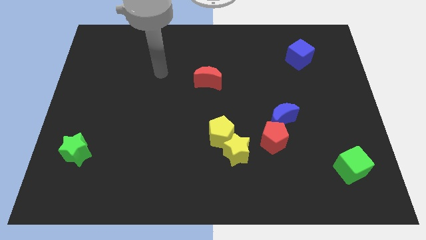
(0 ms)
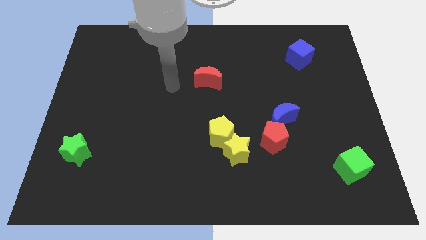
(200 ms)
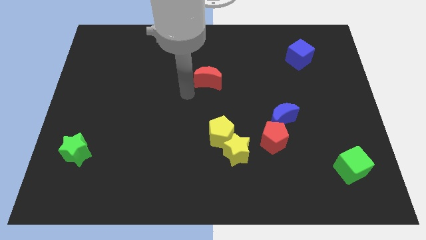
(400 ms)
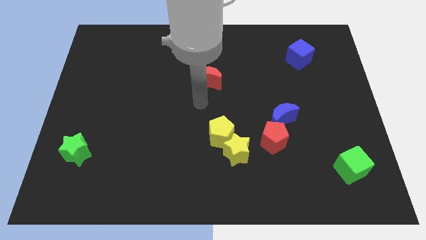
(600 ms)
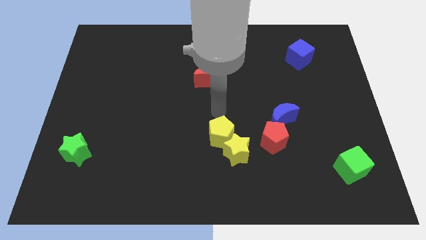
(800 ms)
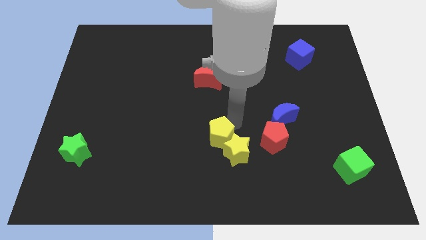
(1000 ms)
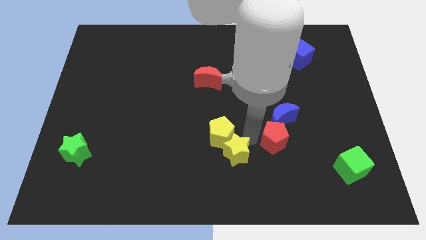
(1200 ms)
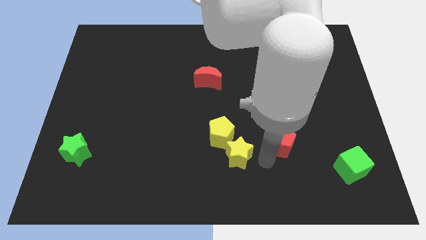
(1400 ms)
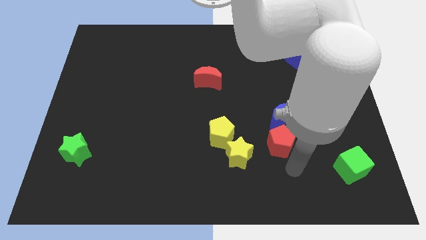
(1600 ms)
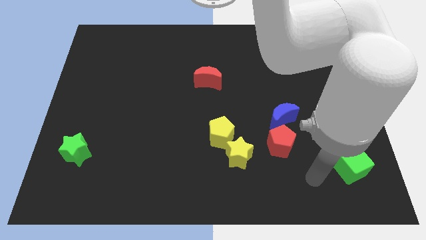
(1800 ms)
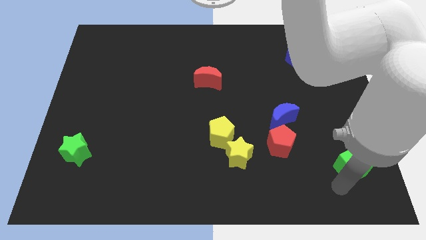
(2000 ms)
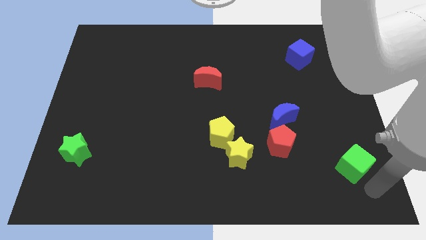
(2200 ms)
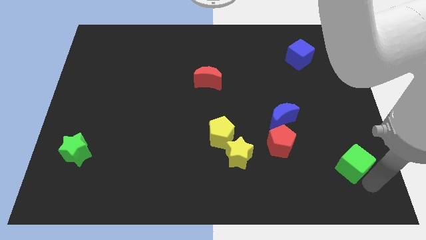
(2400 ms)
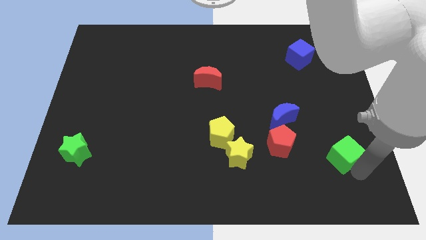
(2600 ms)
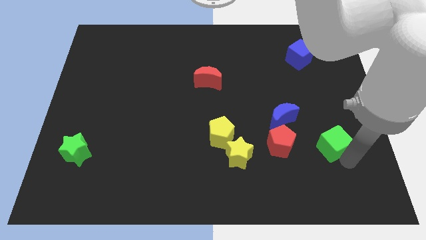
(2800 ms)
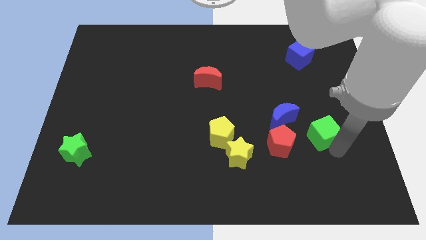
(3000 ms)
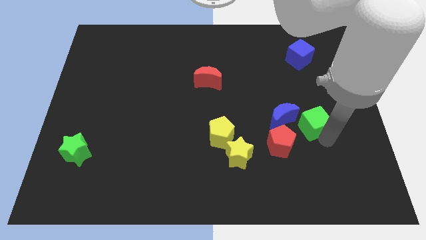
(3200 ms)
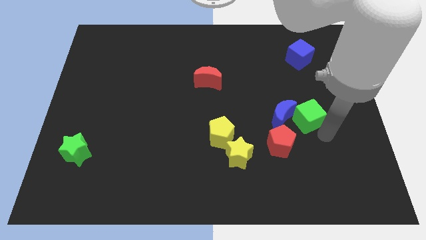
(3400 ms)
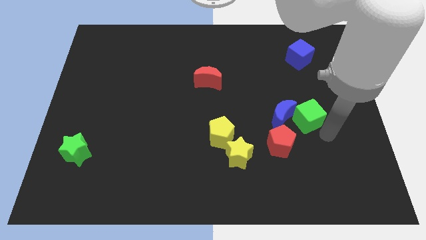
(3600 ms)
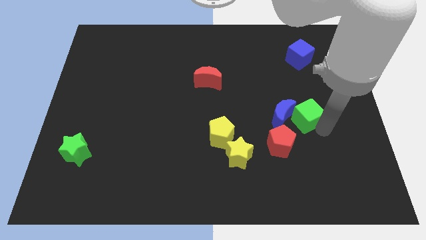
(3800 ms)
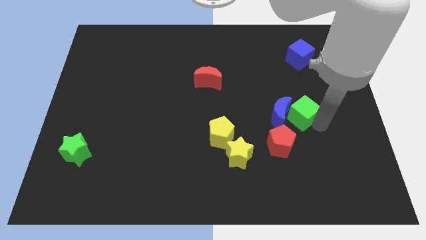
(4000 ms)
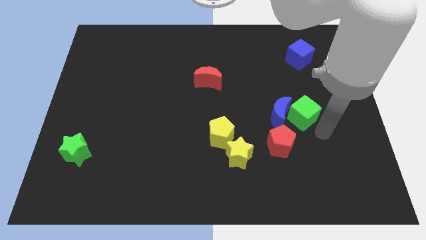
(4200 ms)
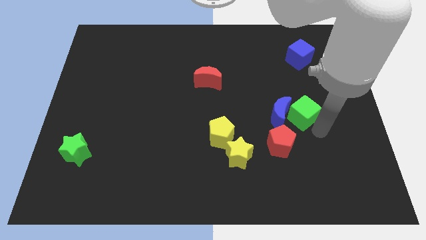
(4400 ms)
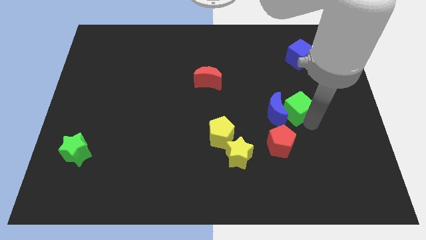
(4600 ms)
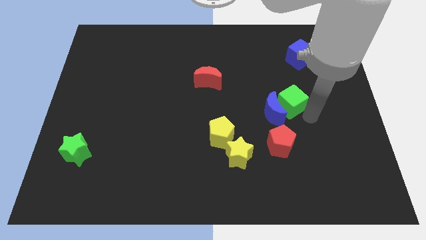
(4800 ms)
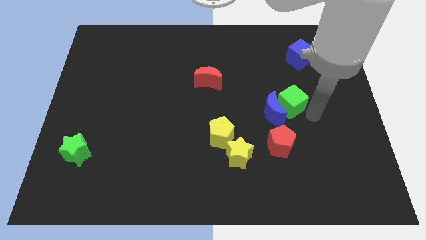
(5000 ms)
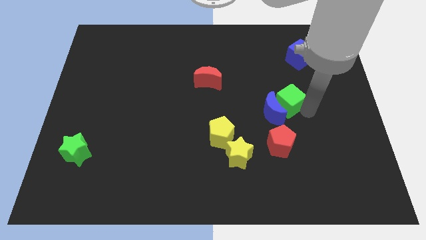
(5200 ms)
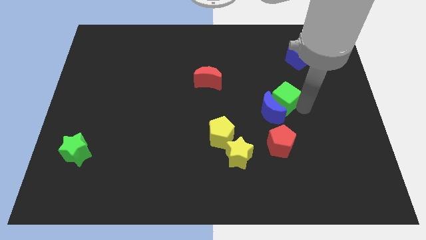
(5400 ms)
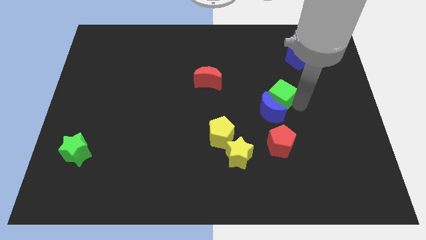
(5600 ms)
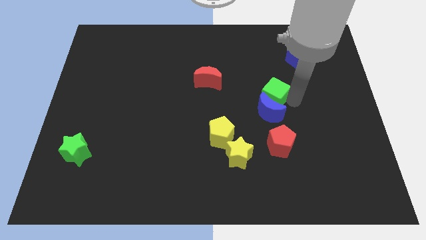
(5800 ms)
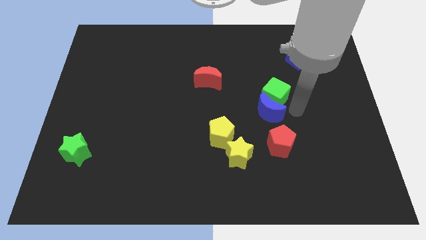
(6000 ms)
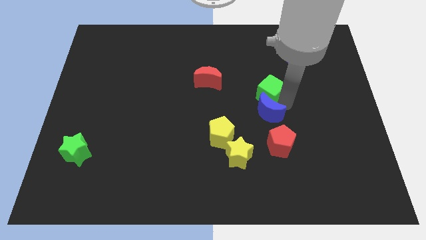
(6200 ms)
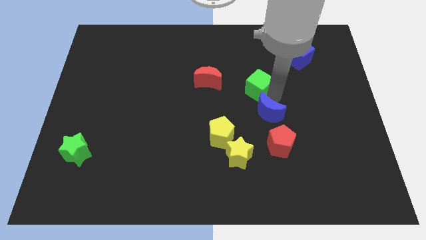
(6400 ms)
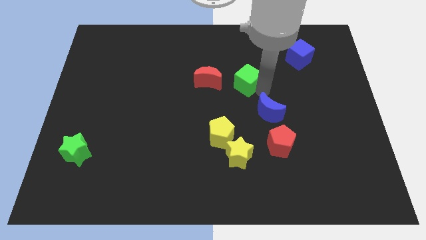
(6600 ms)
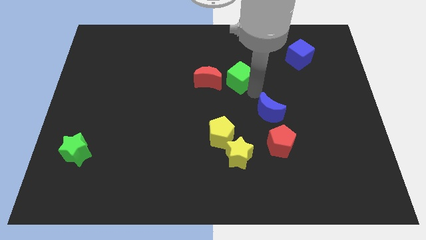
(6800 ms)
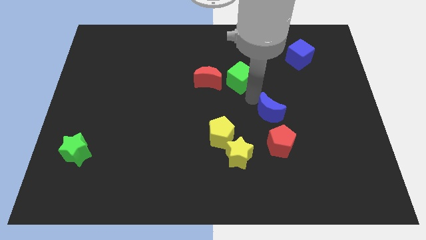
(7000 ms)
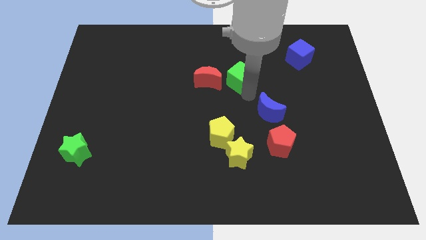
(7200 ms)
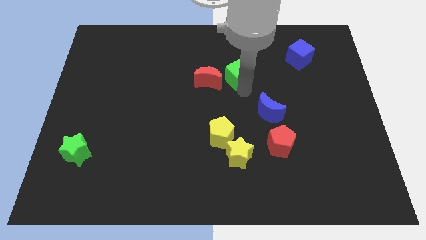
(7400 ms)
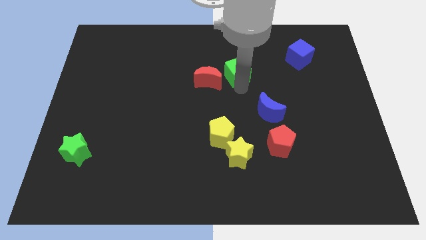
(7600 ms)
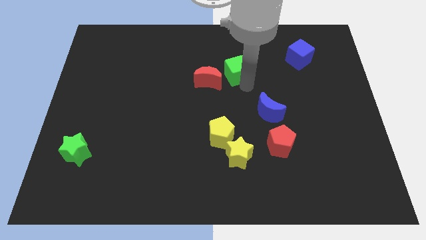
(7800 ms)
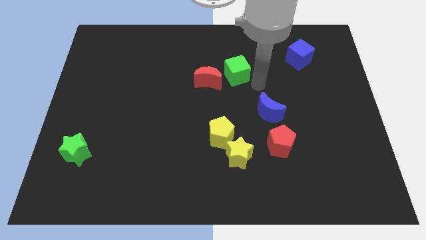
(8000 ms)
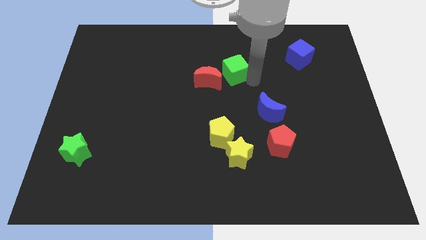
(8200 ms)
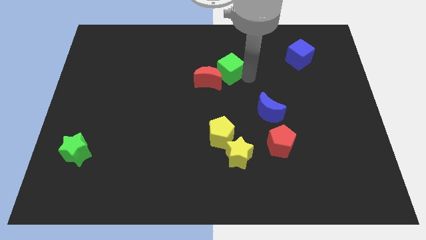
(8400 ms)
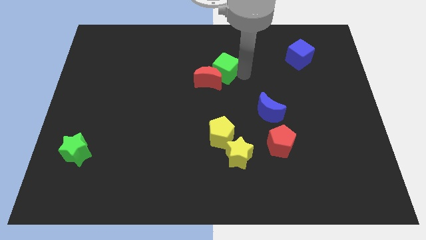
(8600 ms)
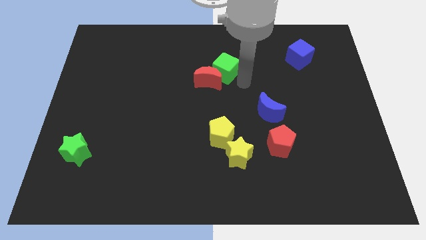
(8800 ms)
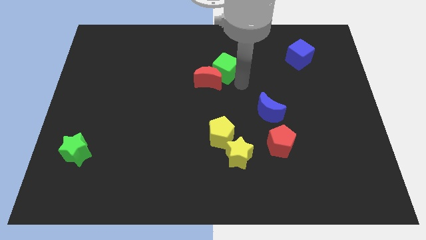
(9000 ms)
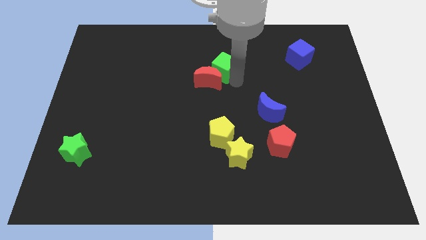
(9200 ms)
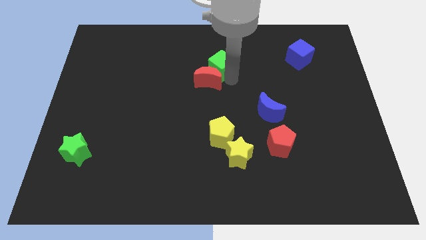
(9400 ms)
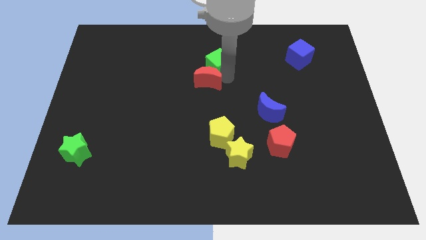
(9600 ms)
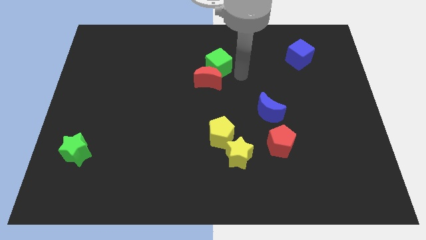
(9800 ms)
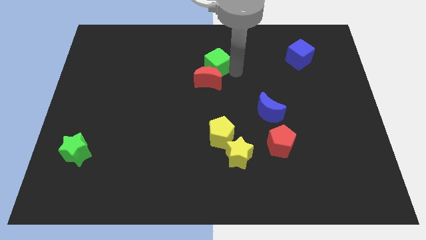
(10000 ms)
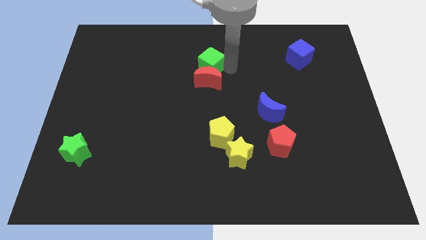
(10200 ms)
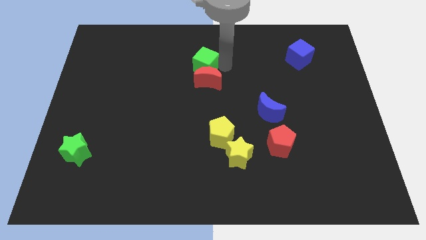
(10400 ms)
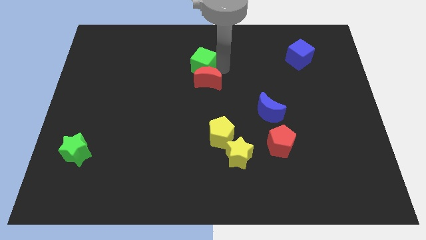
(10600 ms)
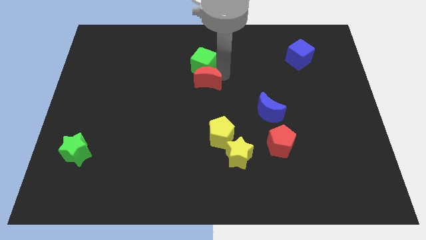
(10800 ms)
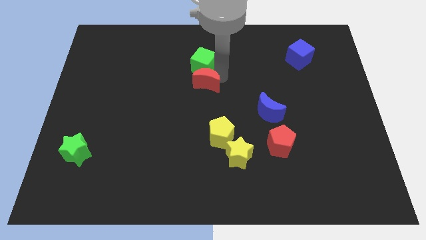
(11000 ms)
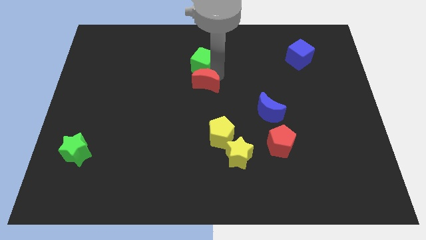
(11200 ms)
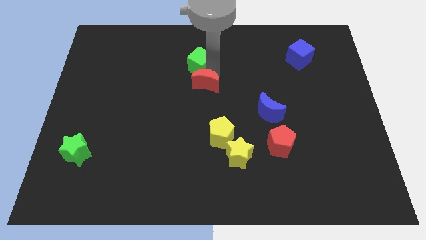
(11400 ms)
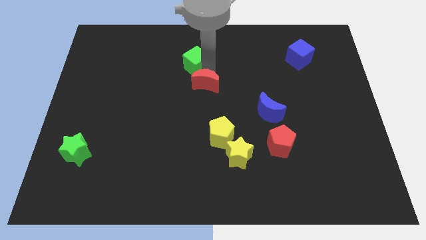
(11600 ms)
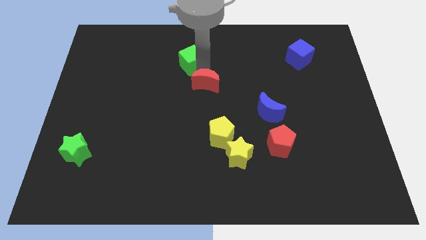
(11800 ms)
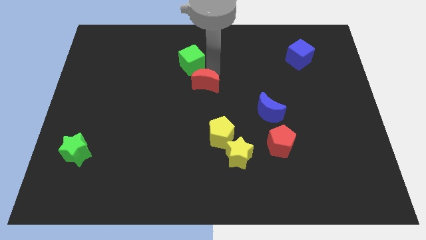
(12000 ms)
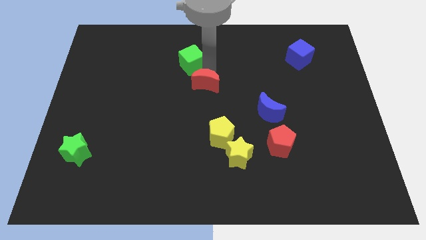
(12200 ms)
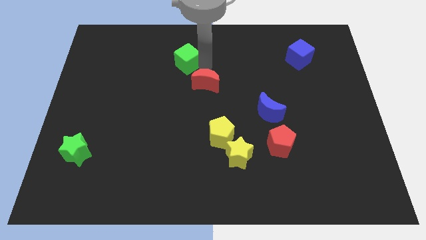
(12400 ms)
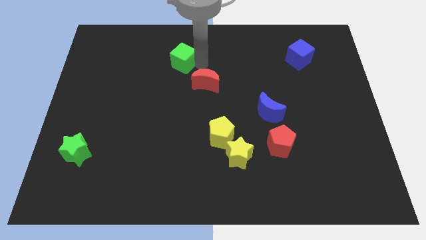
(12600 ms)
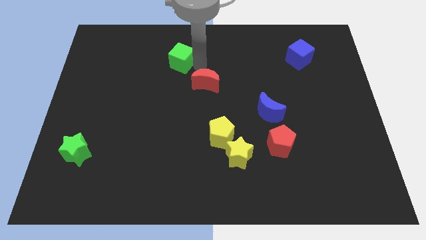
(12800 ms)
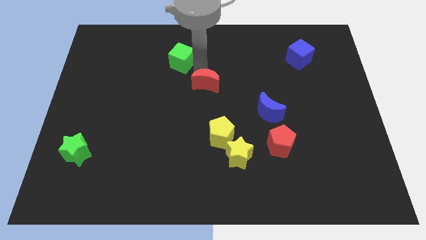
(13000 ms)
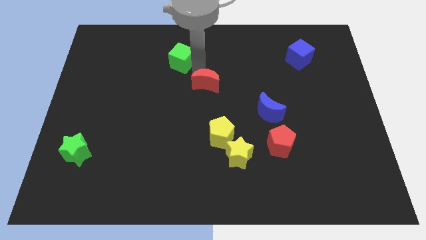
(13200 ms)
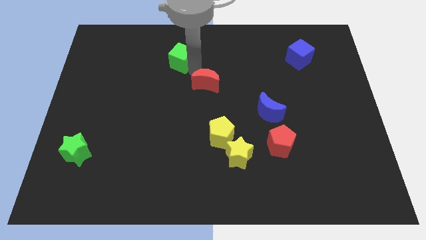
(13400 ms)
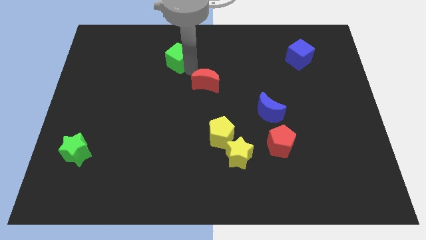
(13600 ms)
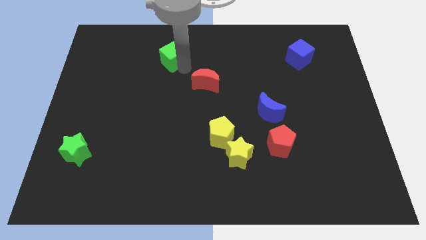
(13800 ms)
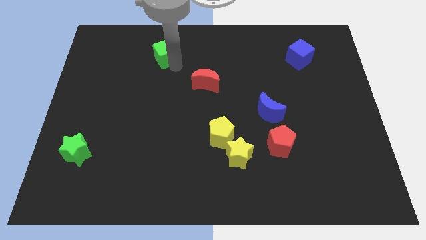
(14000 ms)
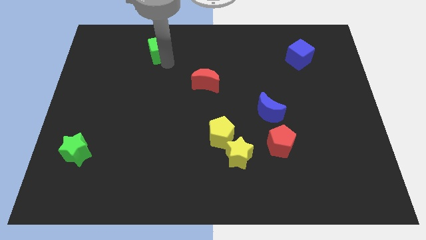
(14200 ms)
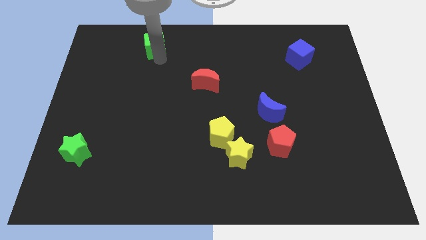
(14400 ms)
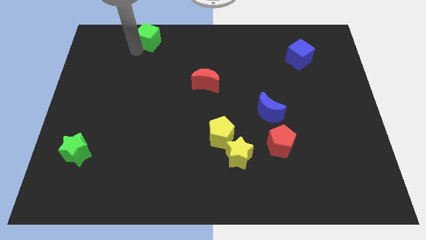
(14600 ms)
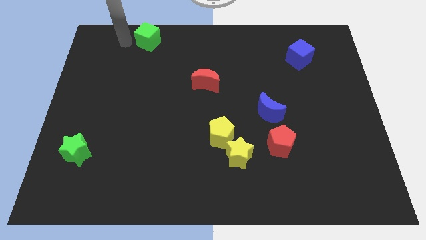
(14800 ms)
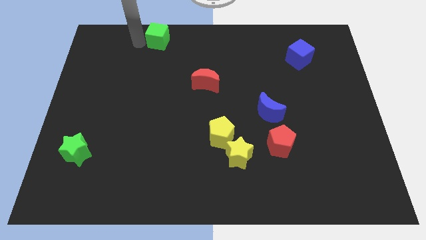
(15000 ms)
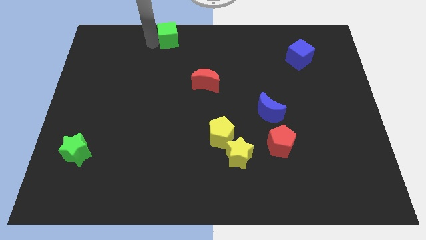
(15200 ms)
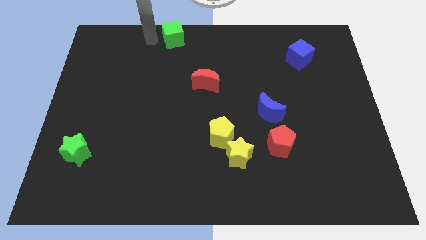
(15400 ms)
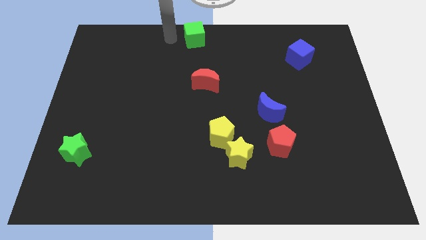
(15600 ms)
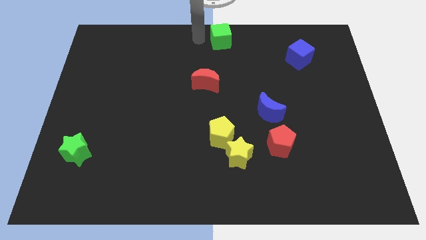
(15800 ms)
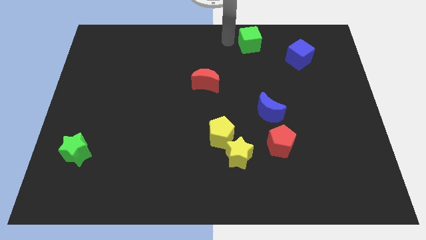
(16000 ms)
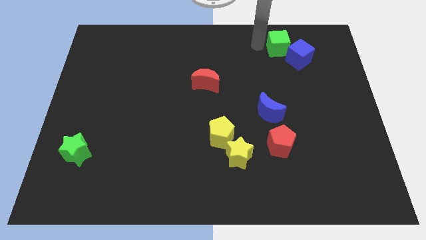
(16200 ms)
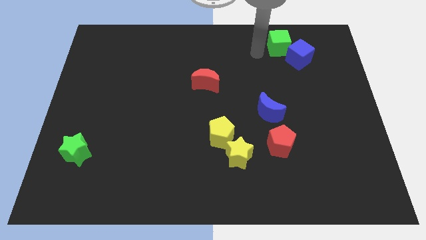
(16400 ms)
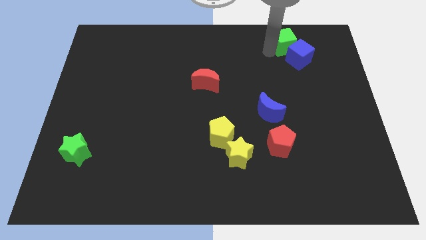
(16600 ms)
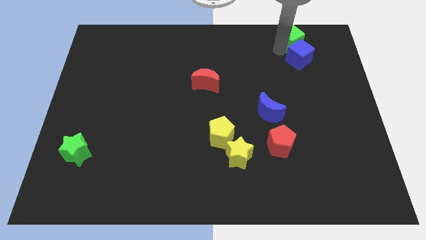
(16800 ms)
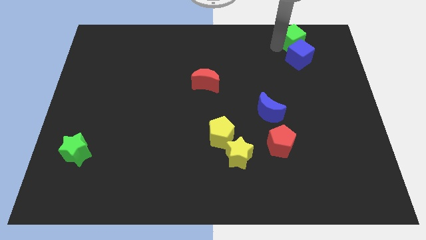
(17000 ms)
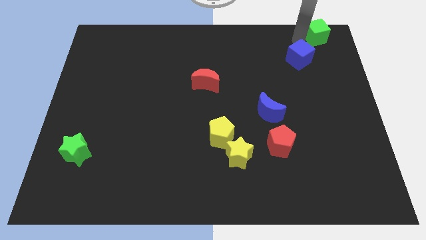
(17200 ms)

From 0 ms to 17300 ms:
put the green cube to the upper right corner
